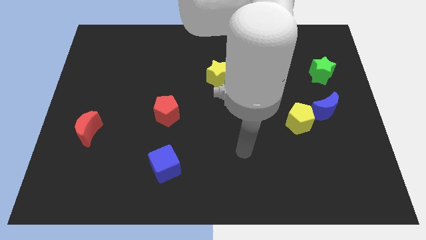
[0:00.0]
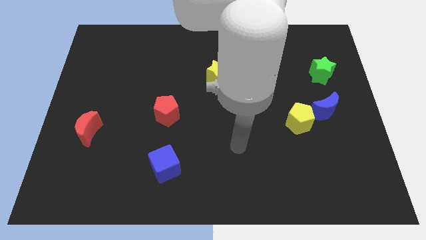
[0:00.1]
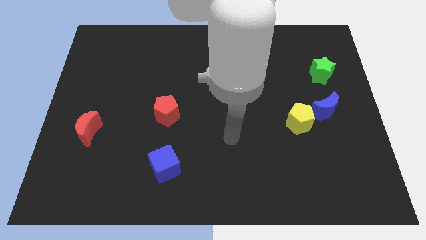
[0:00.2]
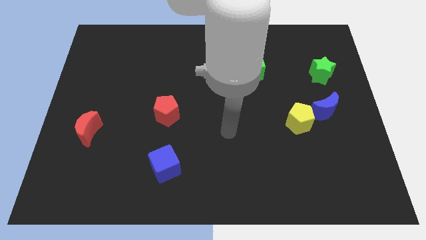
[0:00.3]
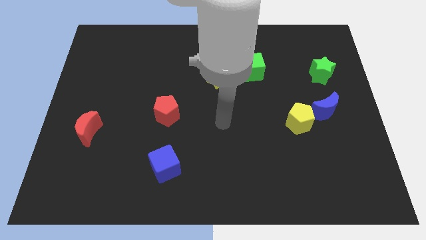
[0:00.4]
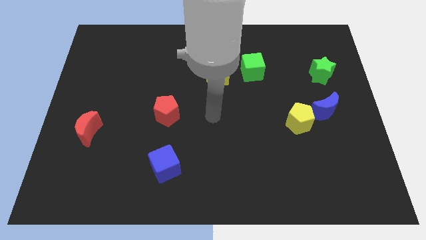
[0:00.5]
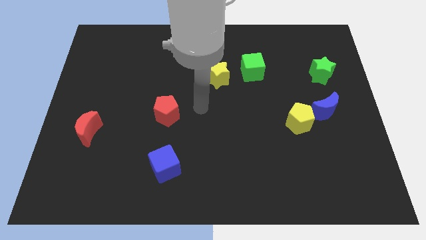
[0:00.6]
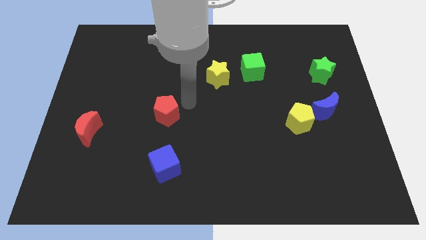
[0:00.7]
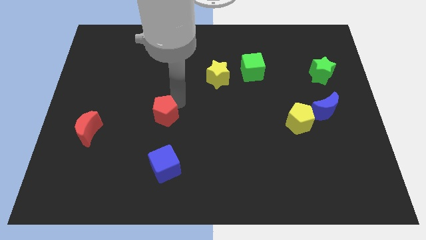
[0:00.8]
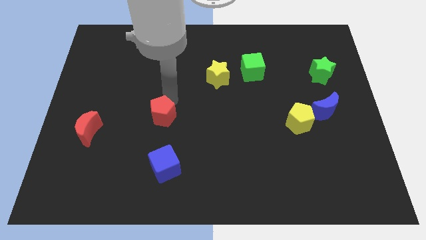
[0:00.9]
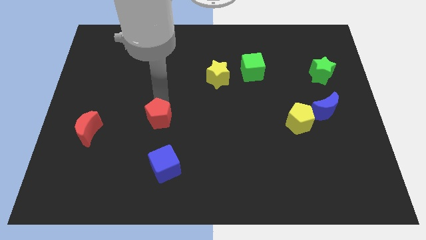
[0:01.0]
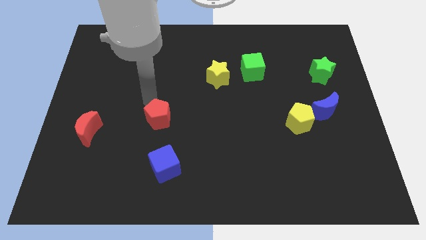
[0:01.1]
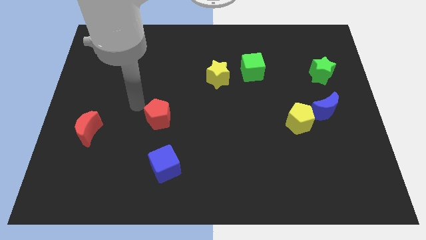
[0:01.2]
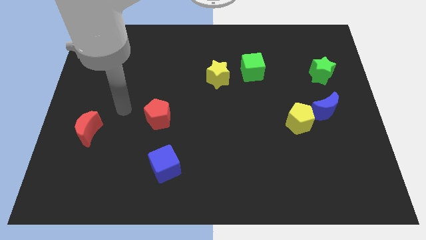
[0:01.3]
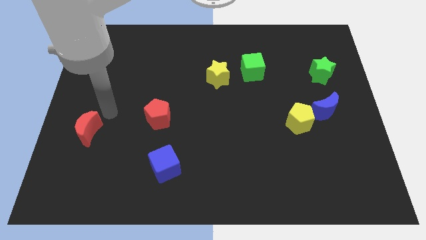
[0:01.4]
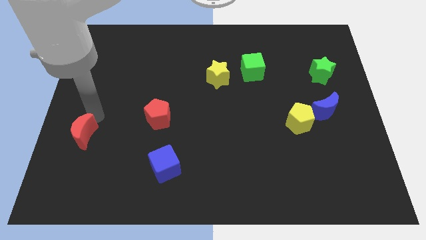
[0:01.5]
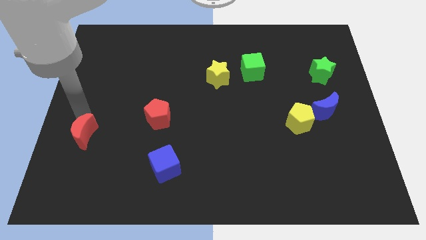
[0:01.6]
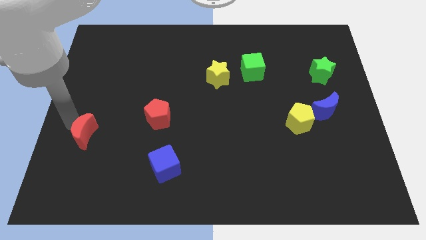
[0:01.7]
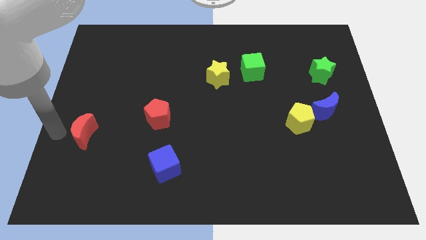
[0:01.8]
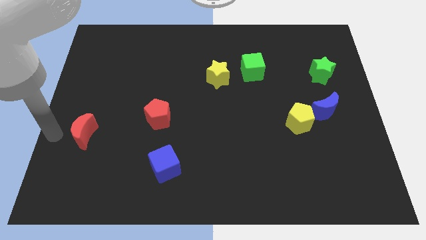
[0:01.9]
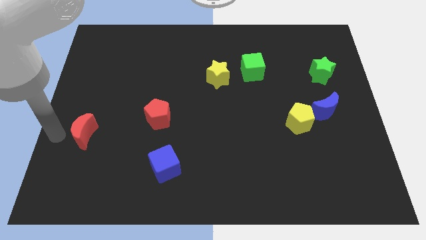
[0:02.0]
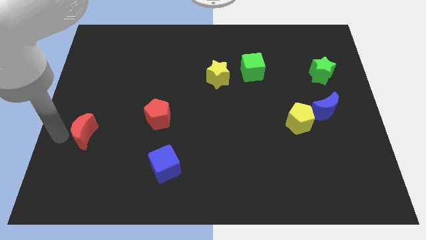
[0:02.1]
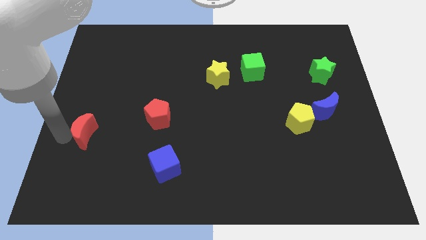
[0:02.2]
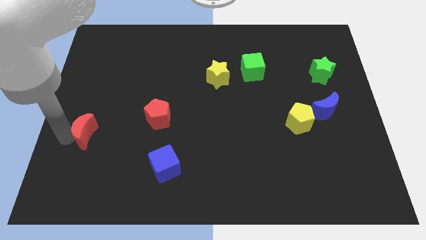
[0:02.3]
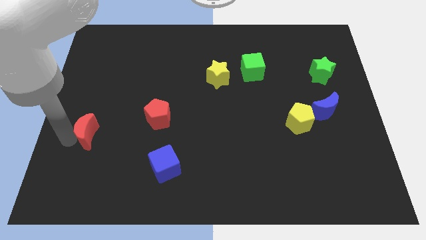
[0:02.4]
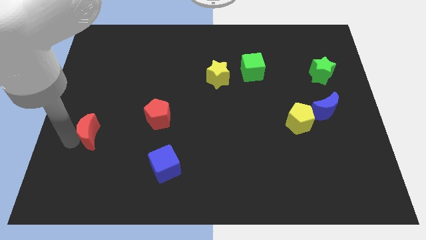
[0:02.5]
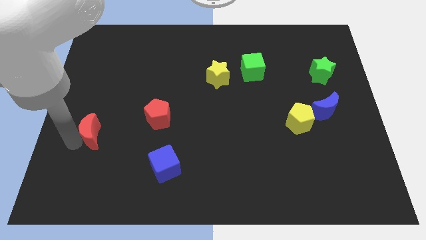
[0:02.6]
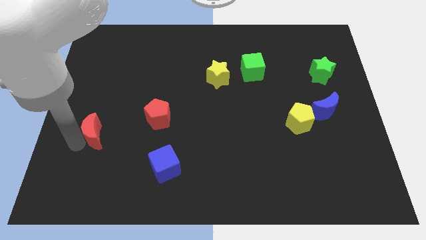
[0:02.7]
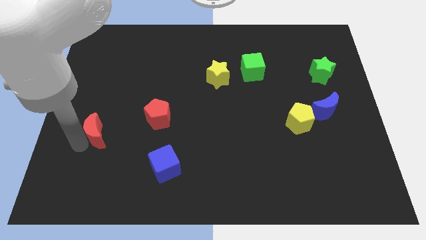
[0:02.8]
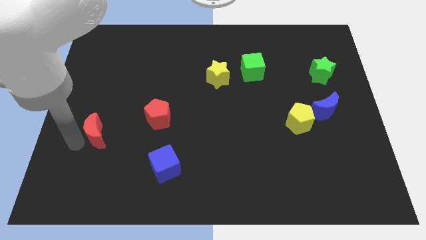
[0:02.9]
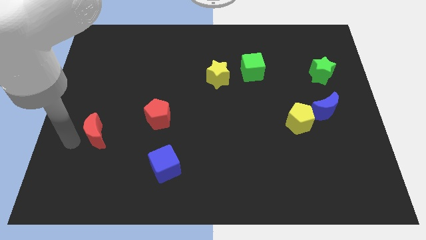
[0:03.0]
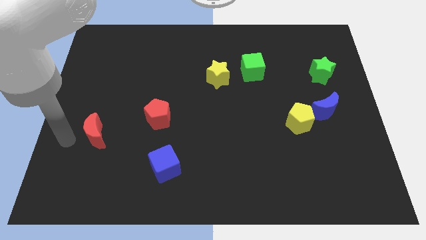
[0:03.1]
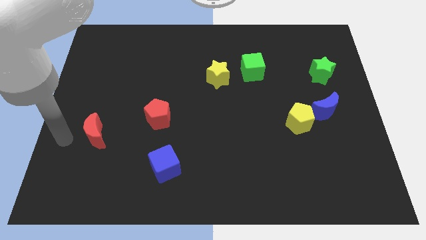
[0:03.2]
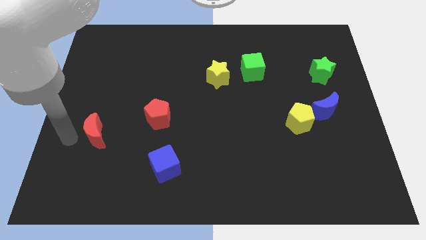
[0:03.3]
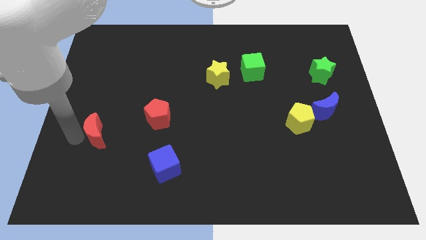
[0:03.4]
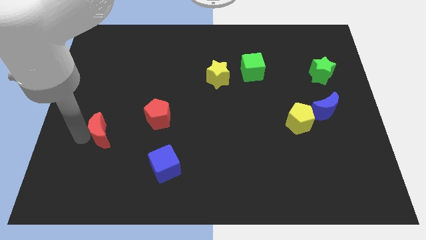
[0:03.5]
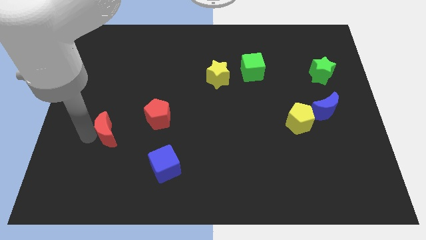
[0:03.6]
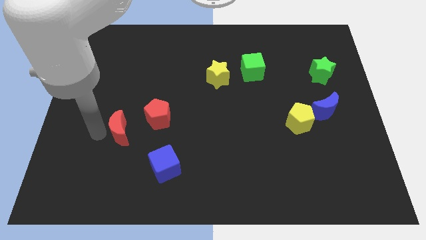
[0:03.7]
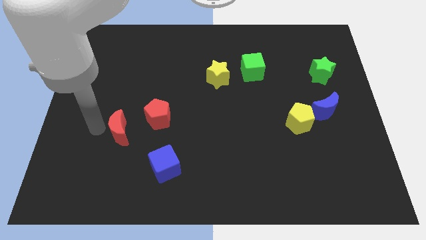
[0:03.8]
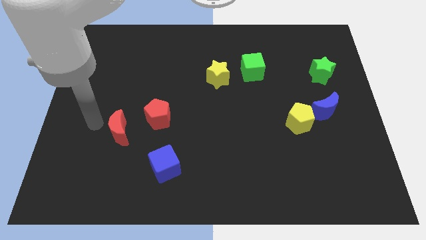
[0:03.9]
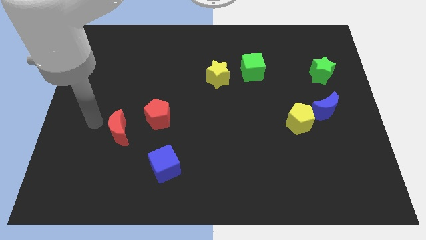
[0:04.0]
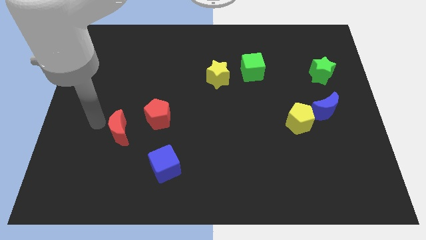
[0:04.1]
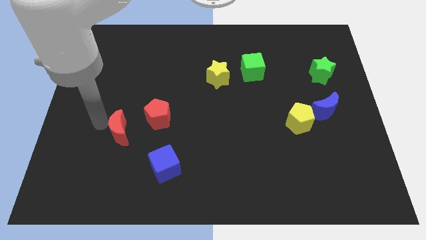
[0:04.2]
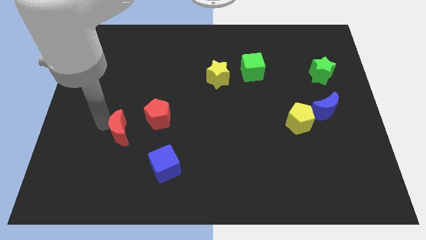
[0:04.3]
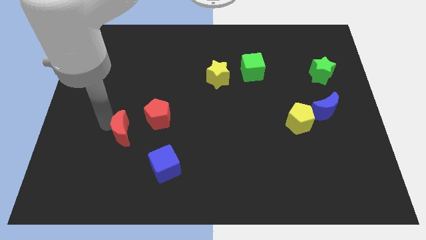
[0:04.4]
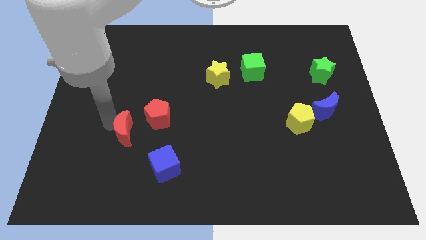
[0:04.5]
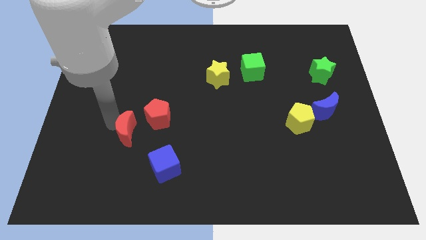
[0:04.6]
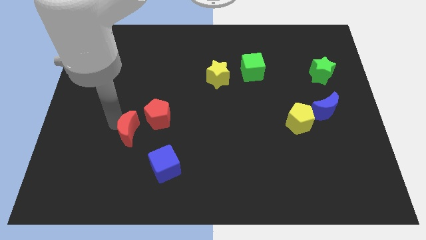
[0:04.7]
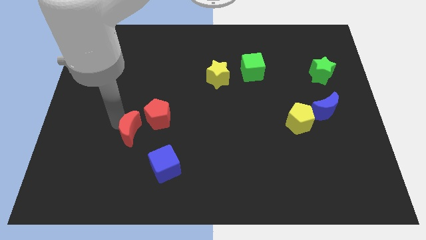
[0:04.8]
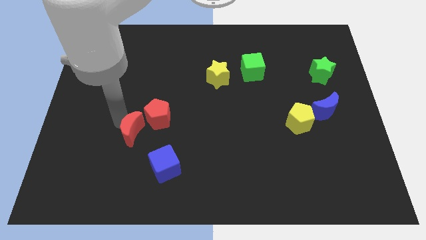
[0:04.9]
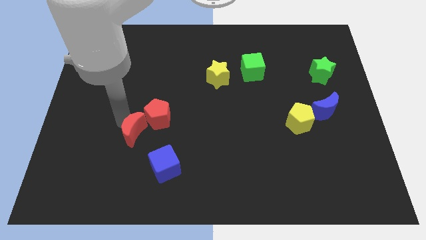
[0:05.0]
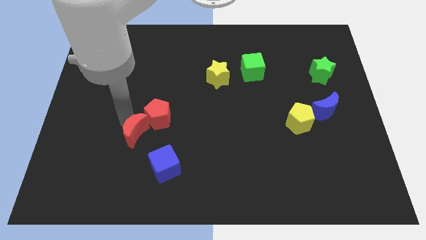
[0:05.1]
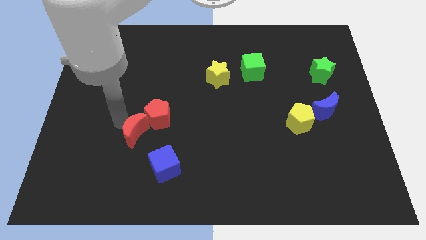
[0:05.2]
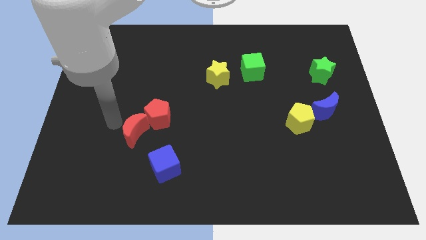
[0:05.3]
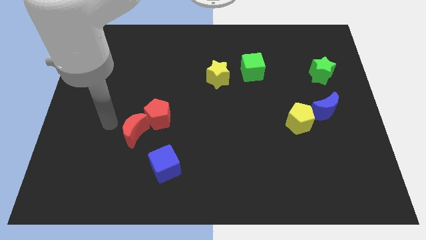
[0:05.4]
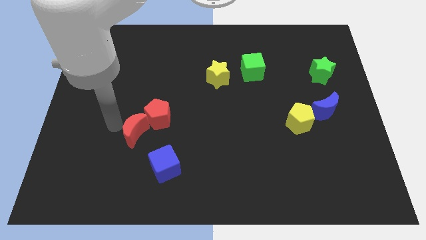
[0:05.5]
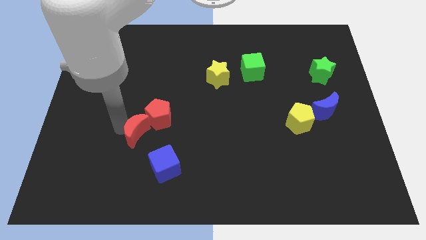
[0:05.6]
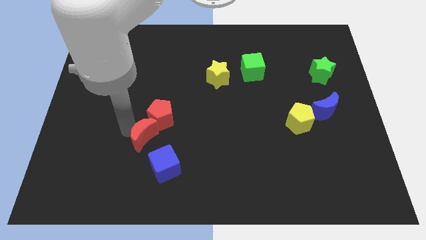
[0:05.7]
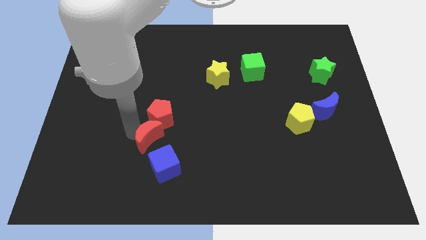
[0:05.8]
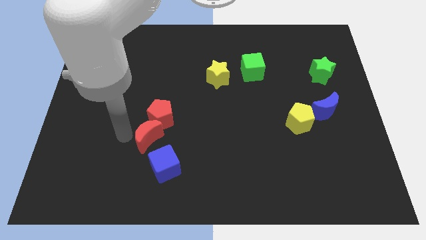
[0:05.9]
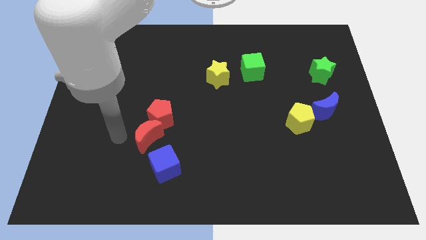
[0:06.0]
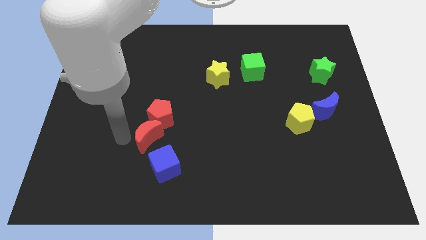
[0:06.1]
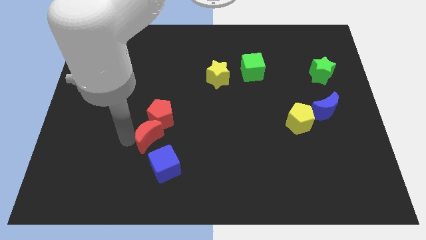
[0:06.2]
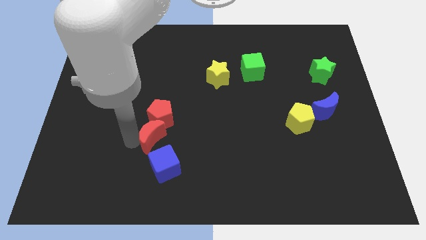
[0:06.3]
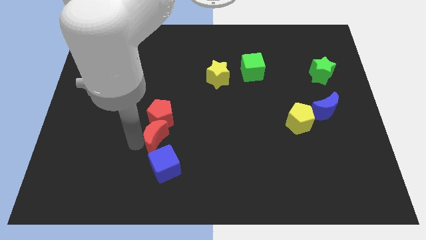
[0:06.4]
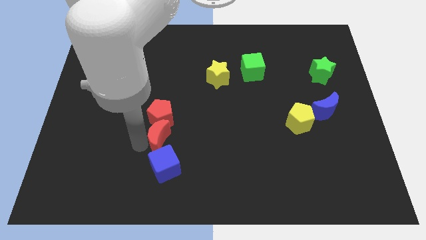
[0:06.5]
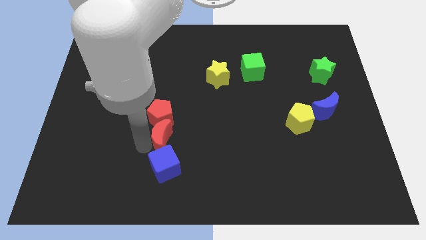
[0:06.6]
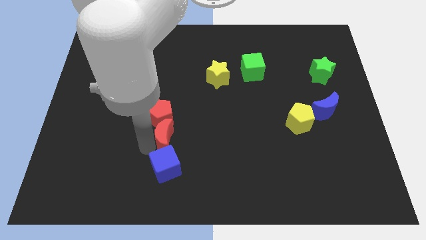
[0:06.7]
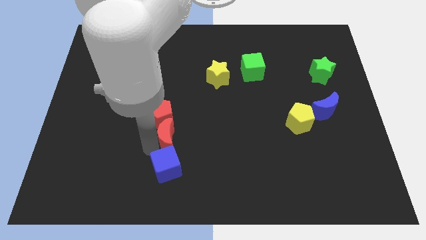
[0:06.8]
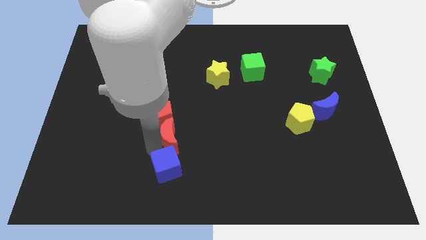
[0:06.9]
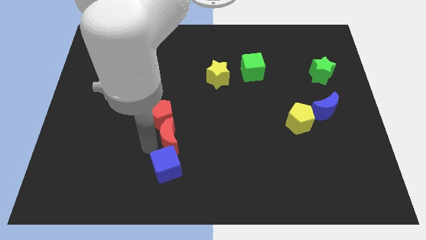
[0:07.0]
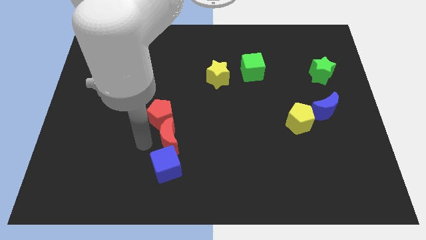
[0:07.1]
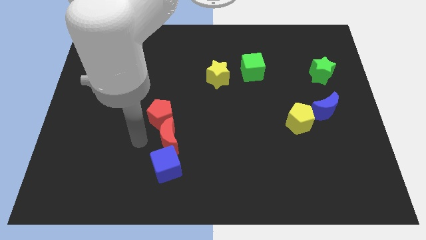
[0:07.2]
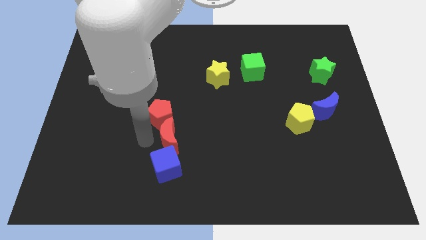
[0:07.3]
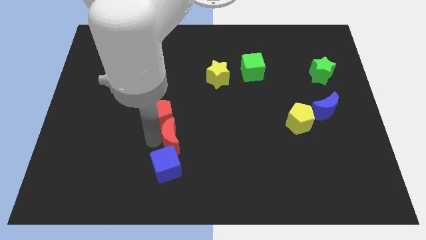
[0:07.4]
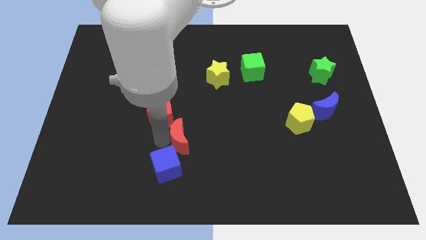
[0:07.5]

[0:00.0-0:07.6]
push the red moon right

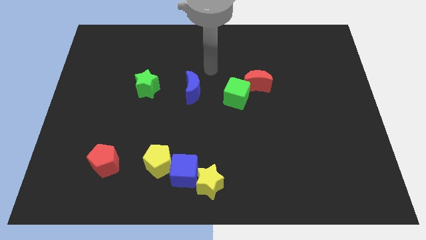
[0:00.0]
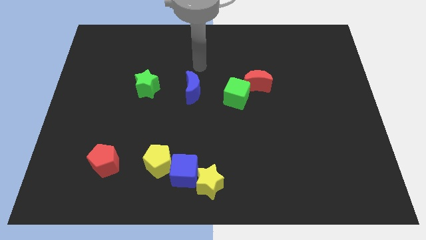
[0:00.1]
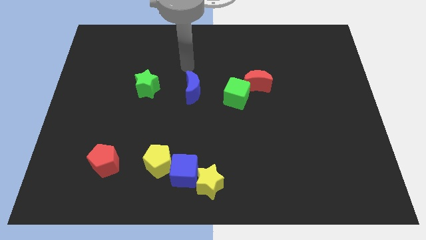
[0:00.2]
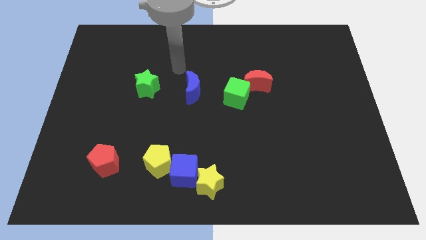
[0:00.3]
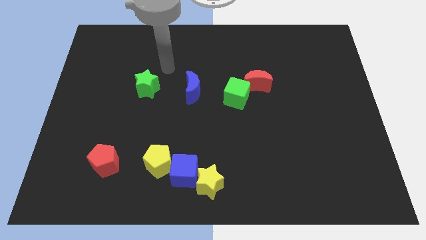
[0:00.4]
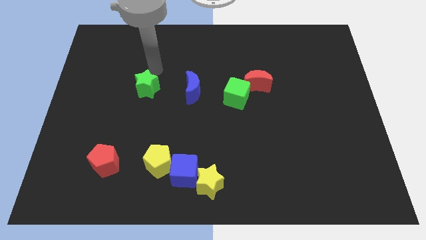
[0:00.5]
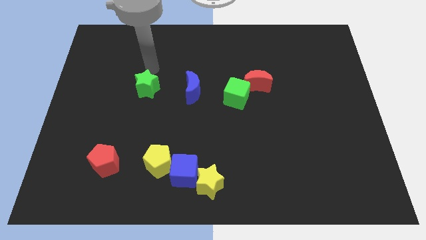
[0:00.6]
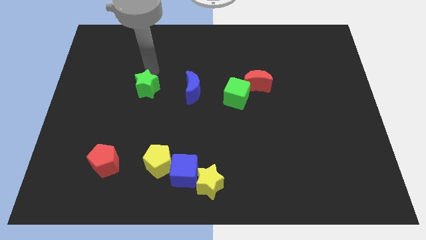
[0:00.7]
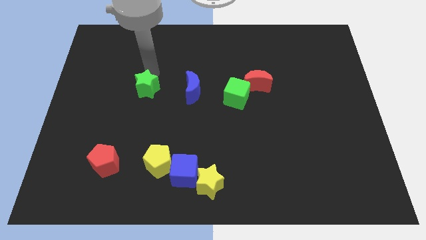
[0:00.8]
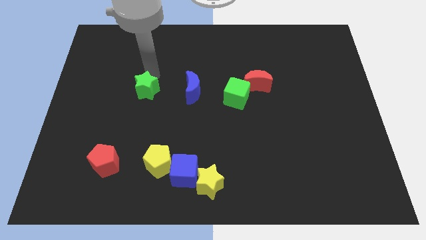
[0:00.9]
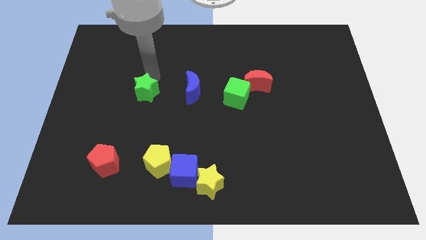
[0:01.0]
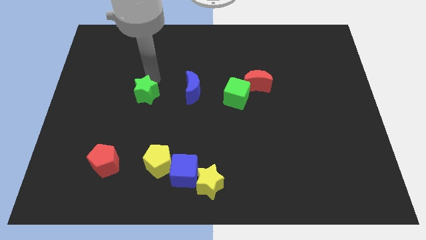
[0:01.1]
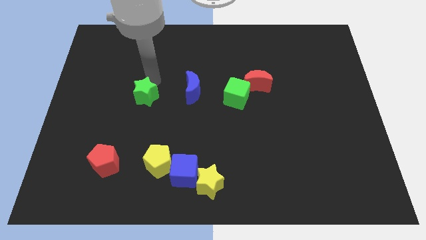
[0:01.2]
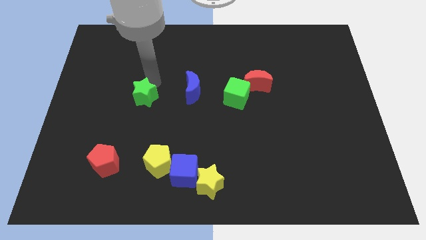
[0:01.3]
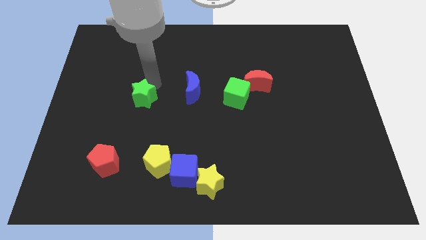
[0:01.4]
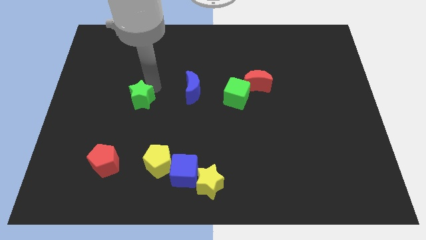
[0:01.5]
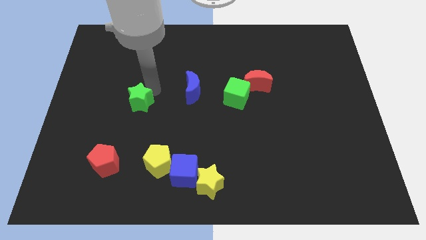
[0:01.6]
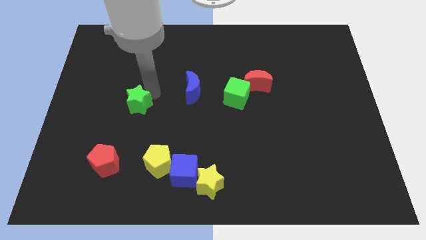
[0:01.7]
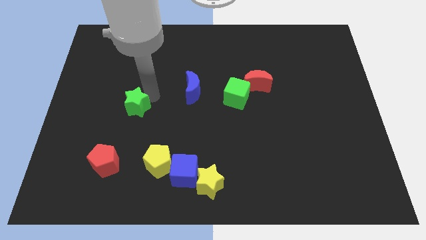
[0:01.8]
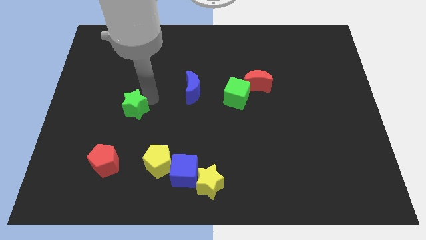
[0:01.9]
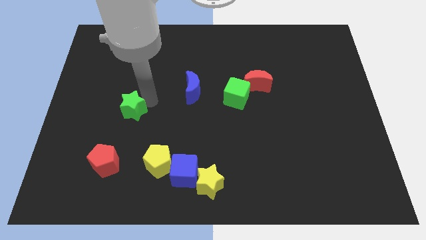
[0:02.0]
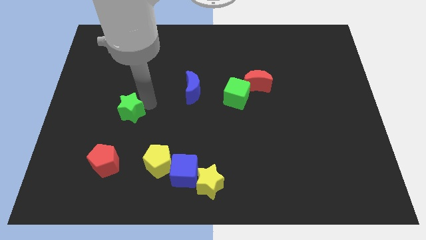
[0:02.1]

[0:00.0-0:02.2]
slide the green star slightly downwards
